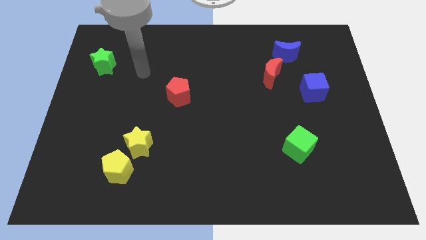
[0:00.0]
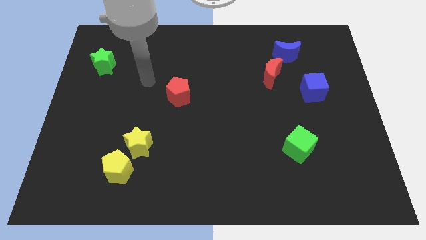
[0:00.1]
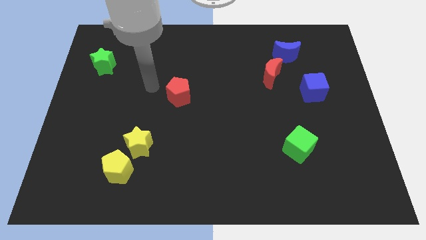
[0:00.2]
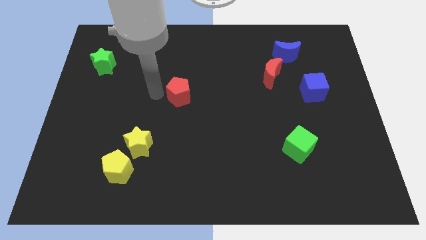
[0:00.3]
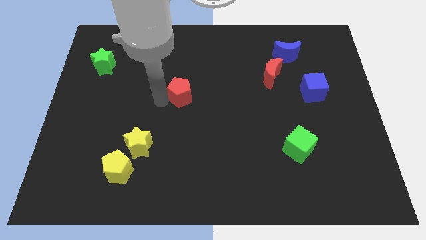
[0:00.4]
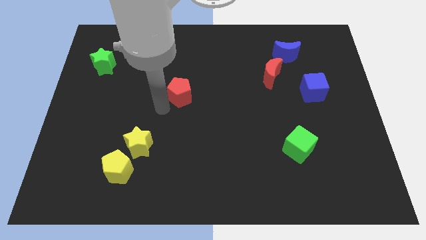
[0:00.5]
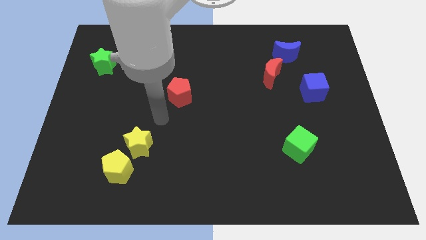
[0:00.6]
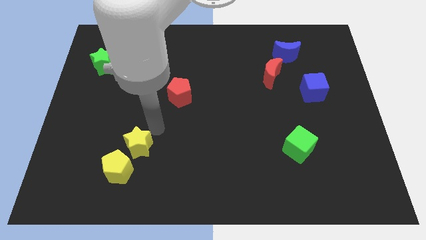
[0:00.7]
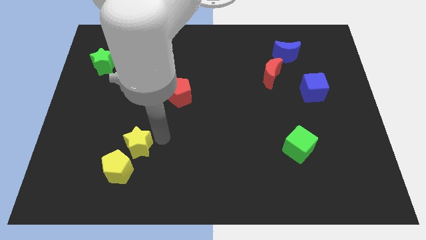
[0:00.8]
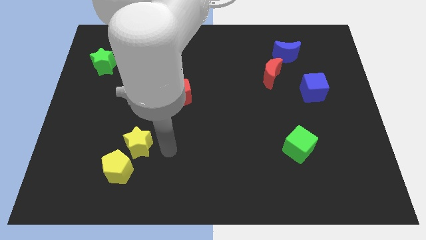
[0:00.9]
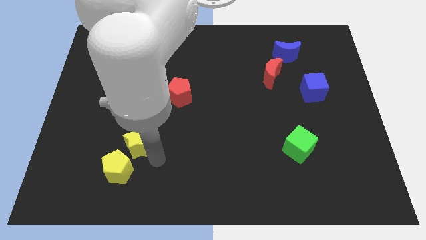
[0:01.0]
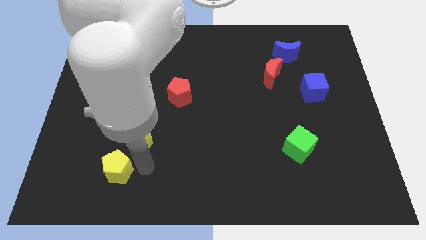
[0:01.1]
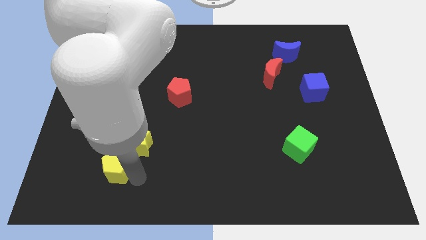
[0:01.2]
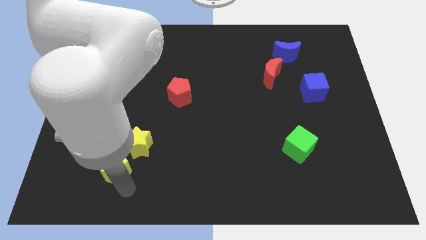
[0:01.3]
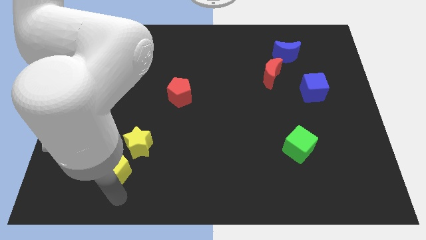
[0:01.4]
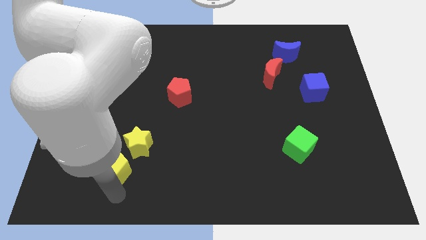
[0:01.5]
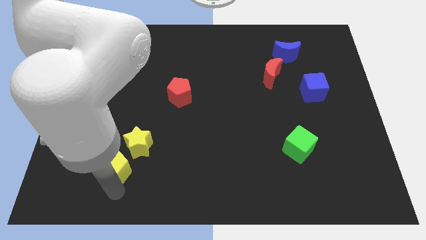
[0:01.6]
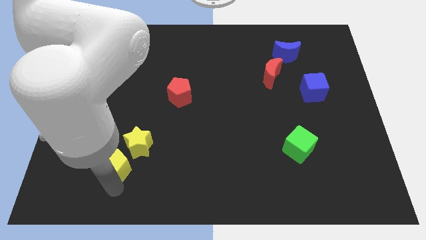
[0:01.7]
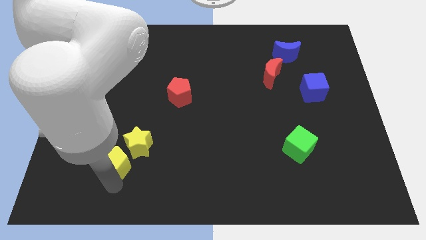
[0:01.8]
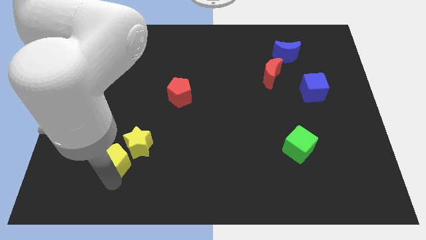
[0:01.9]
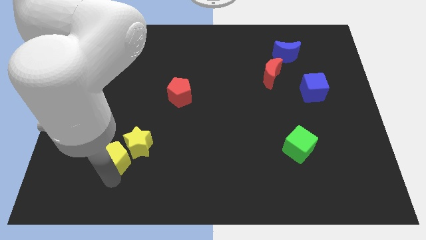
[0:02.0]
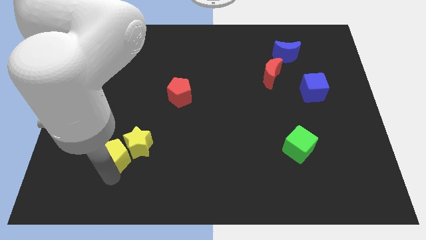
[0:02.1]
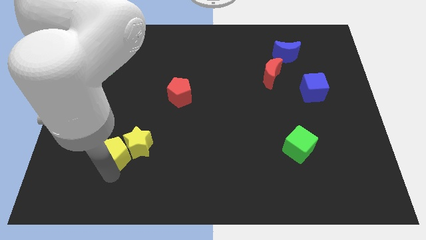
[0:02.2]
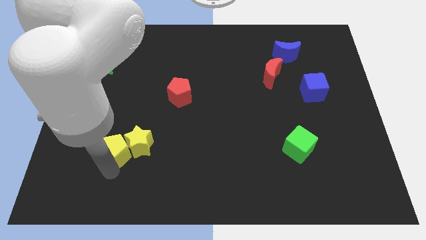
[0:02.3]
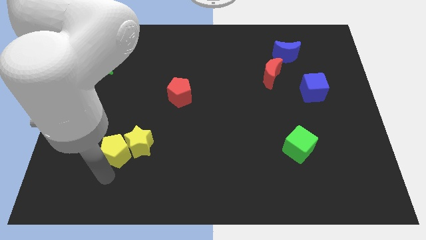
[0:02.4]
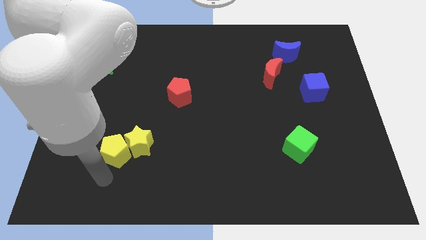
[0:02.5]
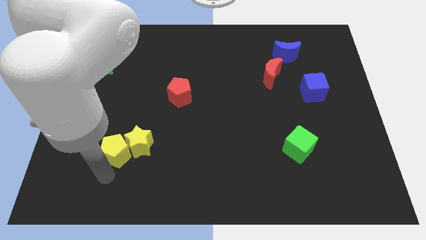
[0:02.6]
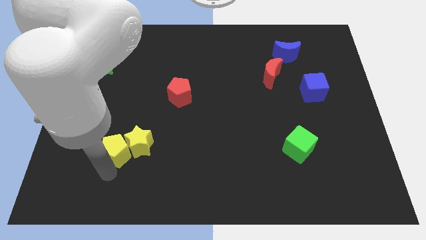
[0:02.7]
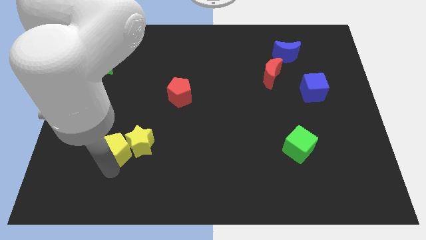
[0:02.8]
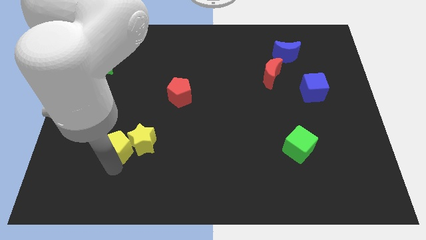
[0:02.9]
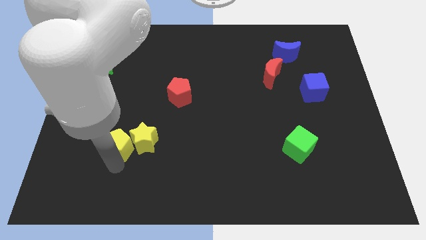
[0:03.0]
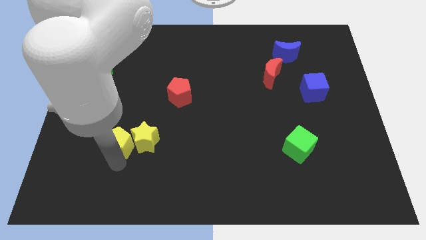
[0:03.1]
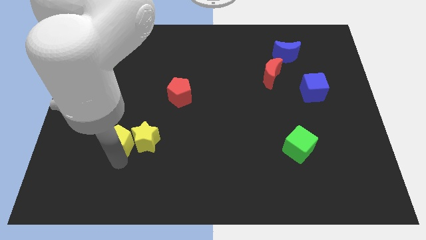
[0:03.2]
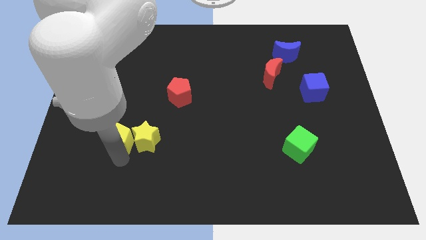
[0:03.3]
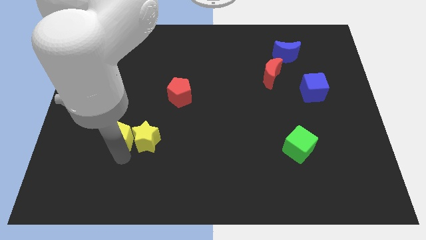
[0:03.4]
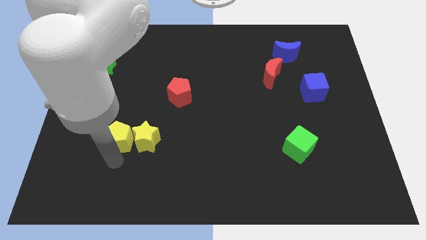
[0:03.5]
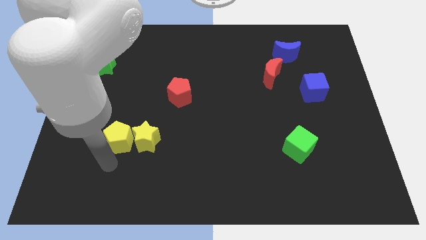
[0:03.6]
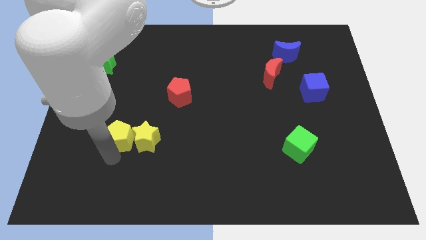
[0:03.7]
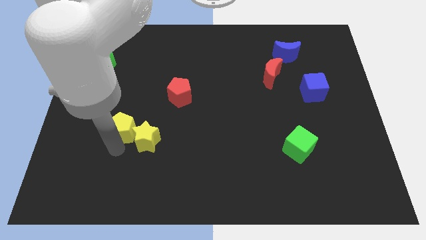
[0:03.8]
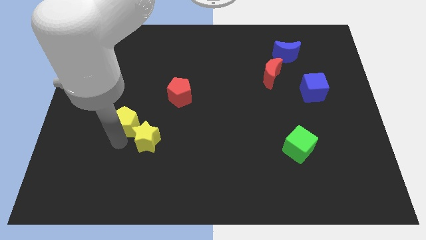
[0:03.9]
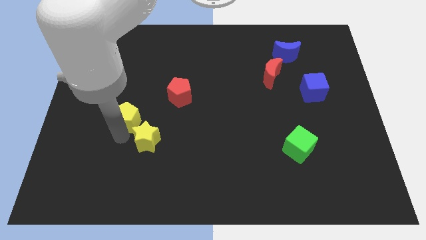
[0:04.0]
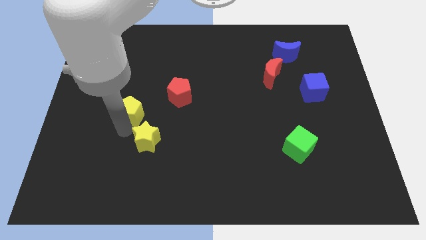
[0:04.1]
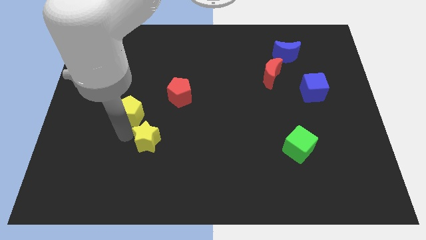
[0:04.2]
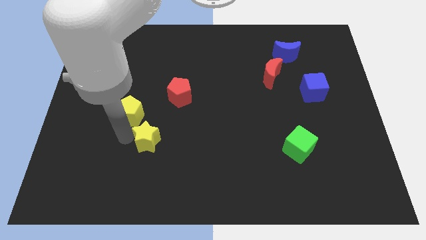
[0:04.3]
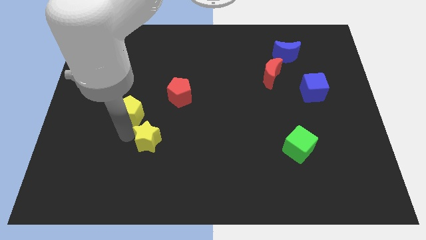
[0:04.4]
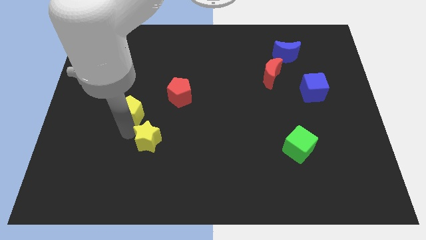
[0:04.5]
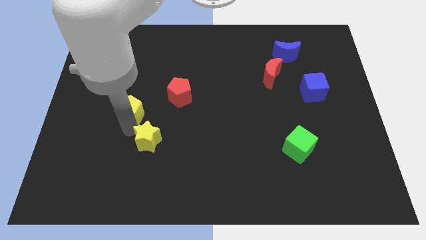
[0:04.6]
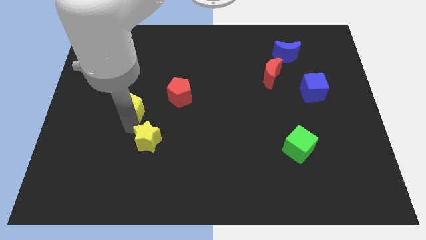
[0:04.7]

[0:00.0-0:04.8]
move the yellow pentagon just left of the red pentagon

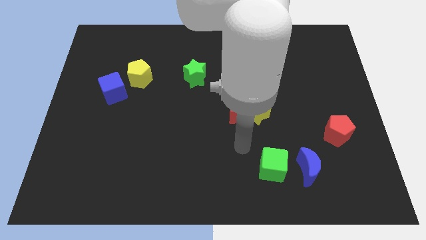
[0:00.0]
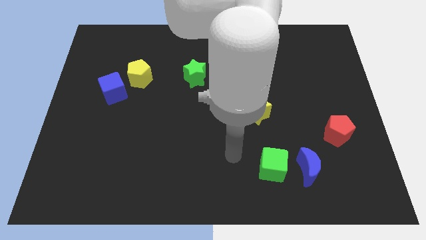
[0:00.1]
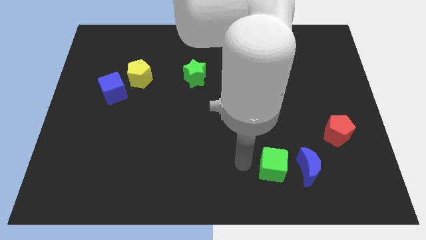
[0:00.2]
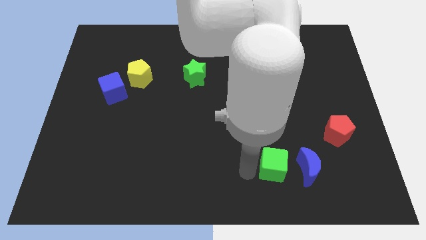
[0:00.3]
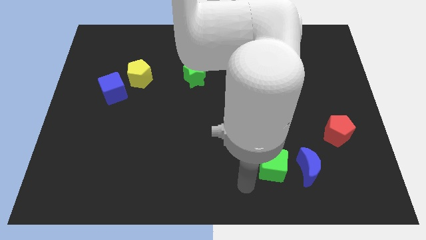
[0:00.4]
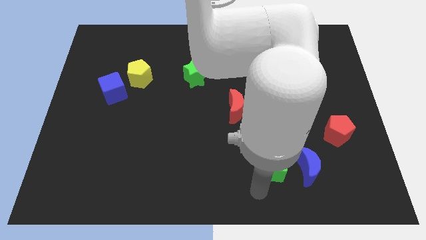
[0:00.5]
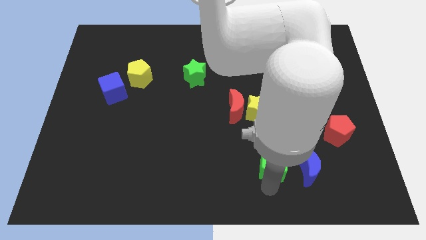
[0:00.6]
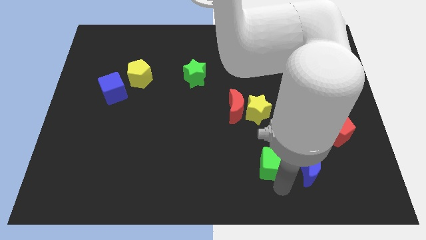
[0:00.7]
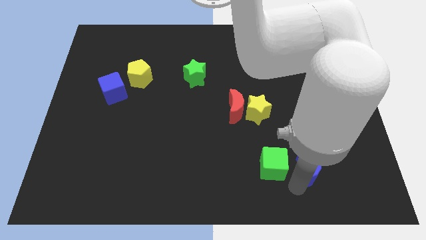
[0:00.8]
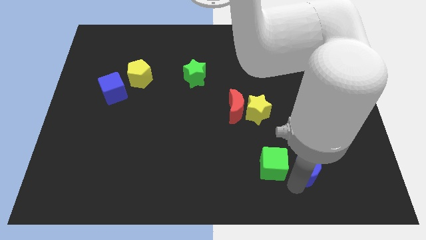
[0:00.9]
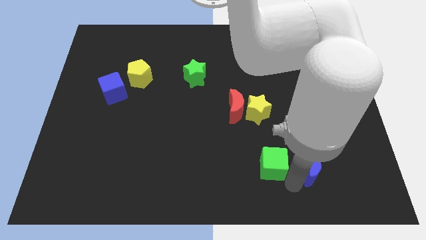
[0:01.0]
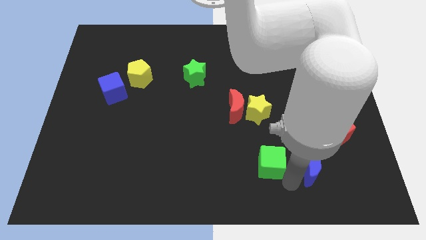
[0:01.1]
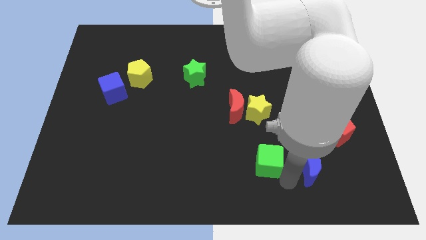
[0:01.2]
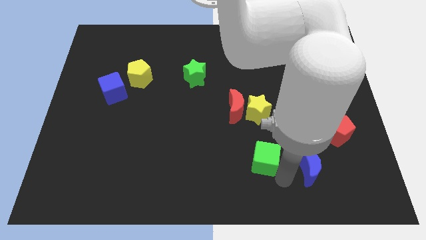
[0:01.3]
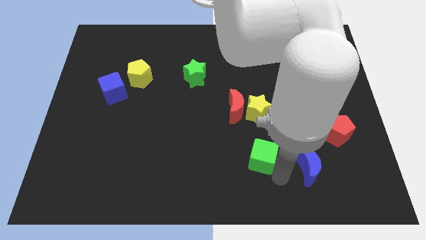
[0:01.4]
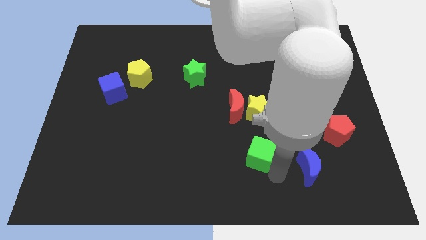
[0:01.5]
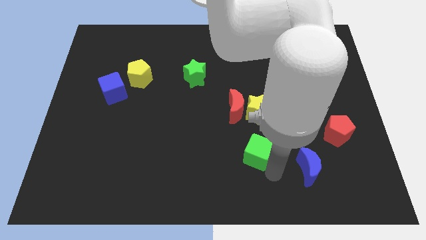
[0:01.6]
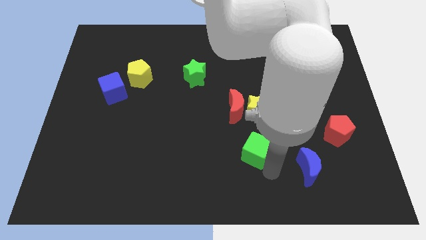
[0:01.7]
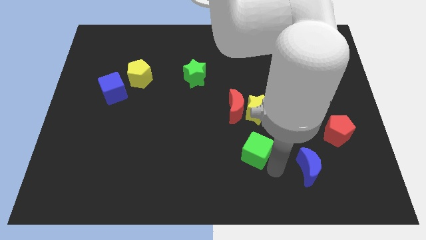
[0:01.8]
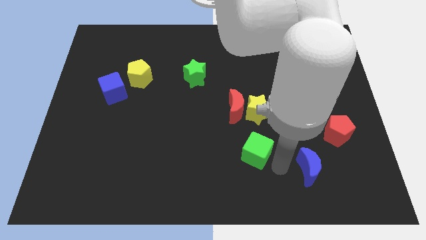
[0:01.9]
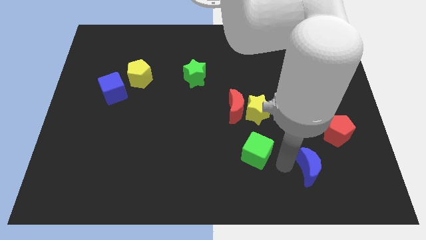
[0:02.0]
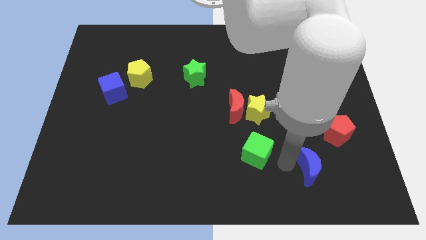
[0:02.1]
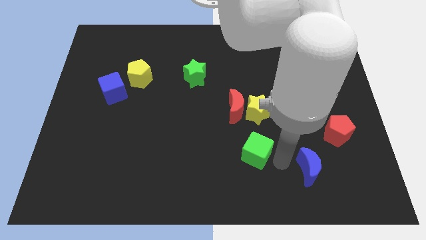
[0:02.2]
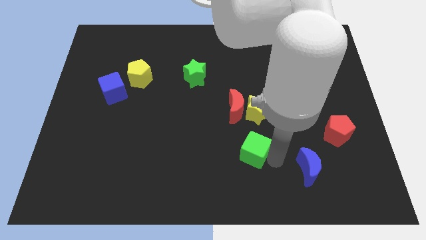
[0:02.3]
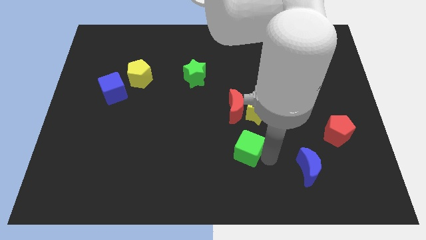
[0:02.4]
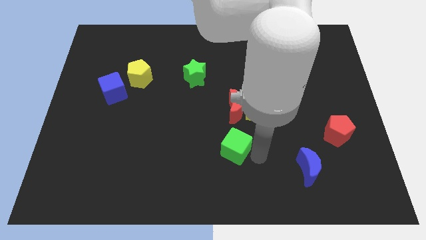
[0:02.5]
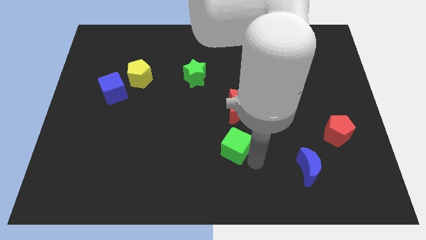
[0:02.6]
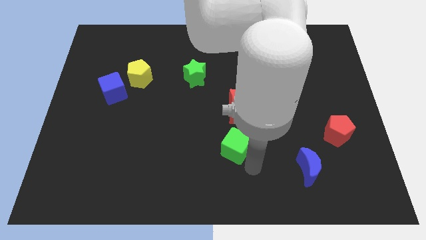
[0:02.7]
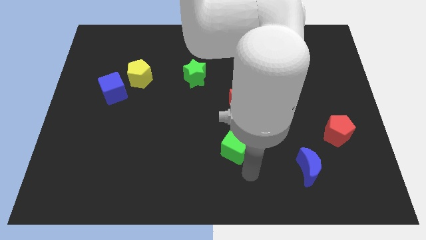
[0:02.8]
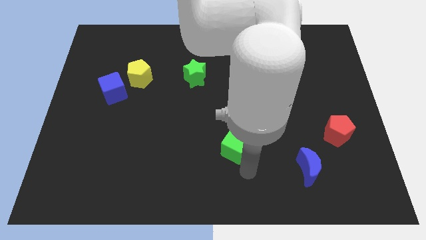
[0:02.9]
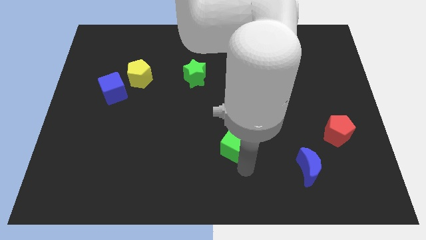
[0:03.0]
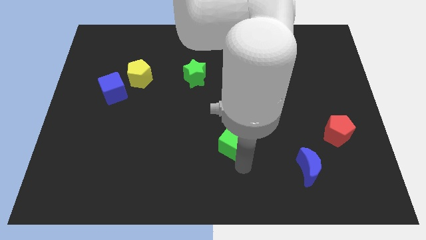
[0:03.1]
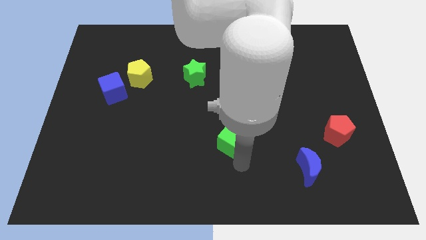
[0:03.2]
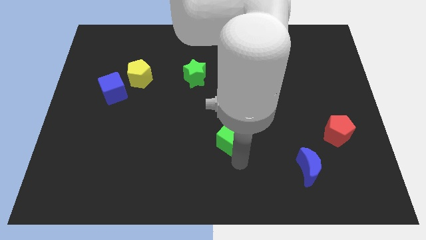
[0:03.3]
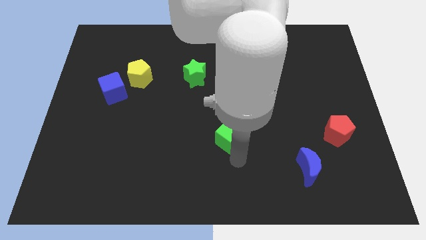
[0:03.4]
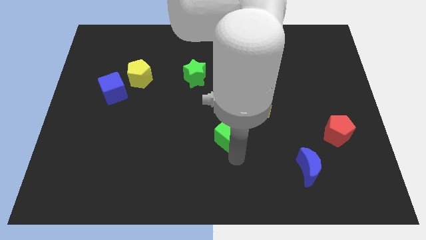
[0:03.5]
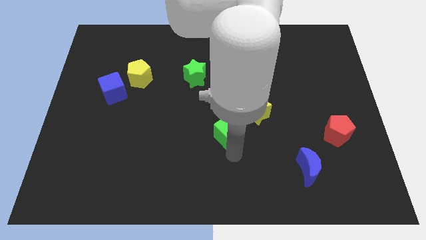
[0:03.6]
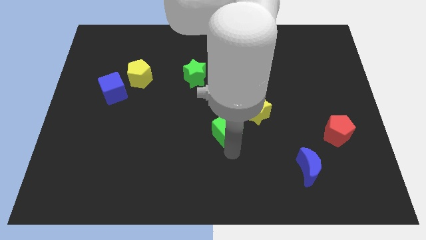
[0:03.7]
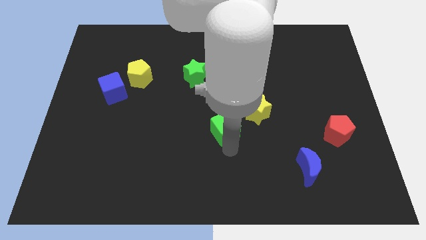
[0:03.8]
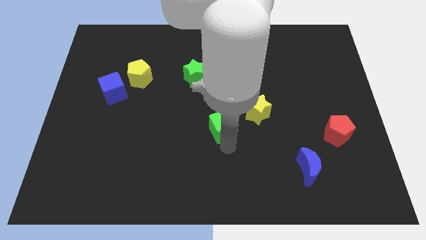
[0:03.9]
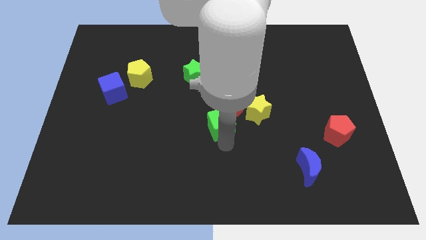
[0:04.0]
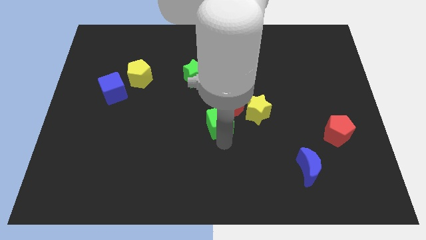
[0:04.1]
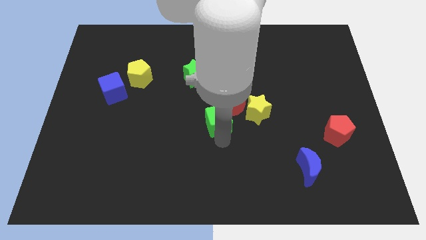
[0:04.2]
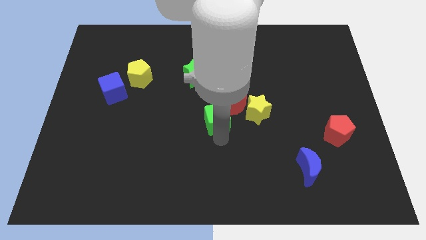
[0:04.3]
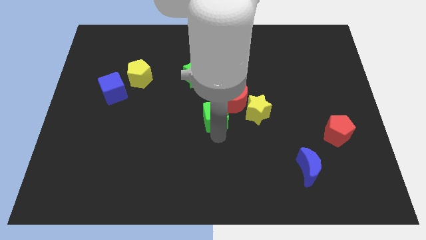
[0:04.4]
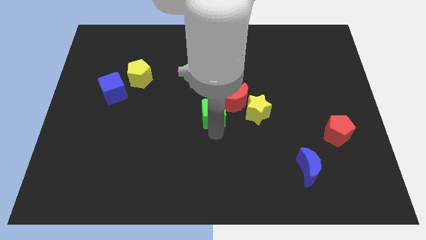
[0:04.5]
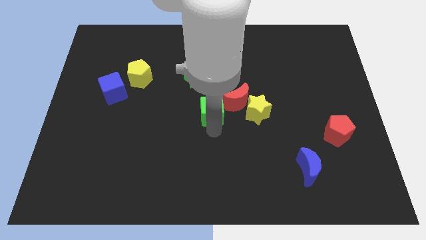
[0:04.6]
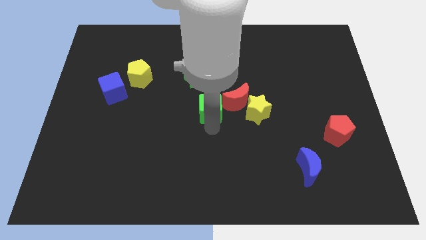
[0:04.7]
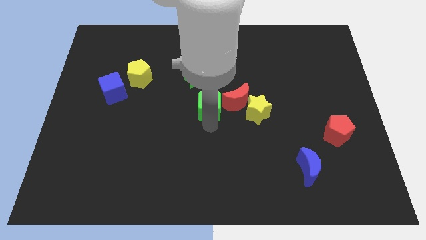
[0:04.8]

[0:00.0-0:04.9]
move the green cube to the bottom right of the green star
